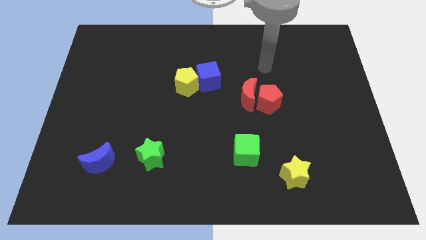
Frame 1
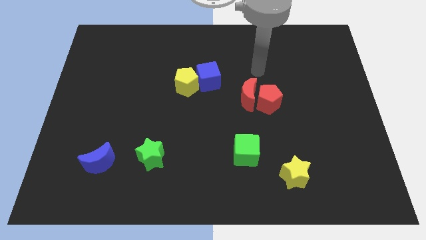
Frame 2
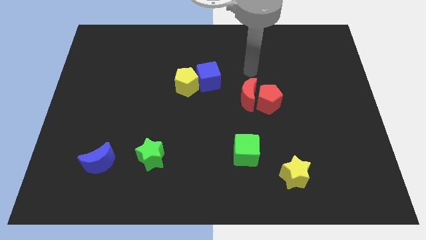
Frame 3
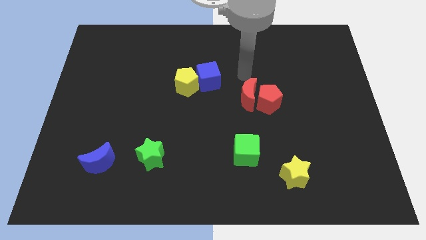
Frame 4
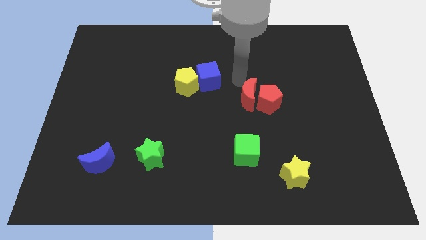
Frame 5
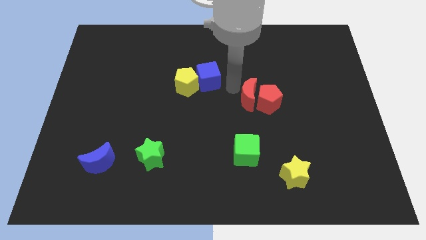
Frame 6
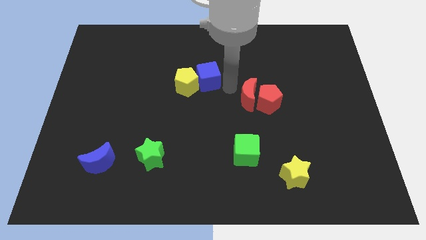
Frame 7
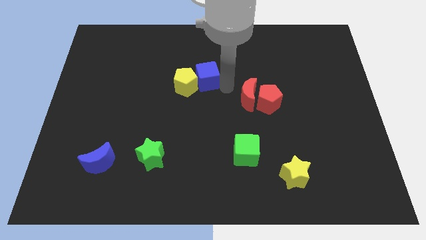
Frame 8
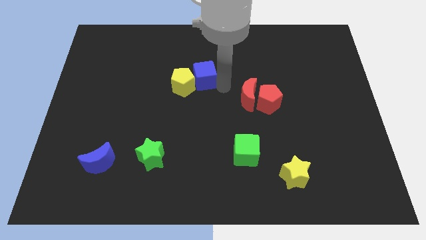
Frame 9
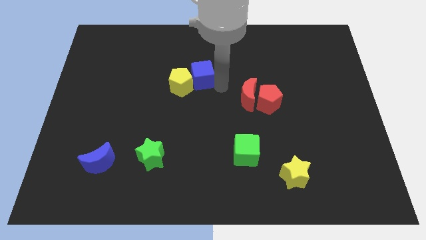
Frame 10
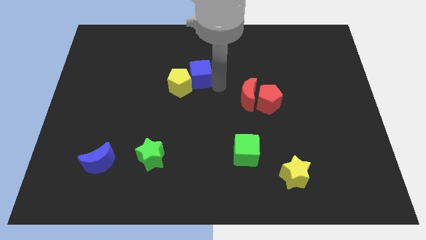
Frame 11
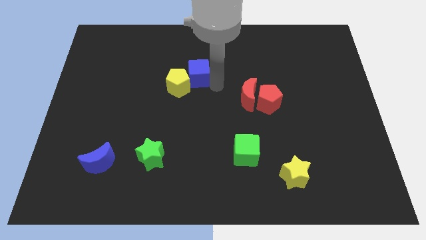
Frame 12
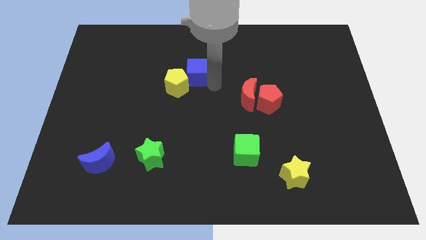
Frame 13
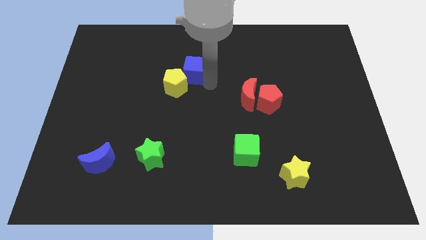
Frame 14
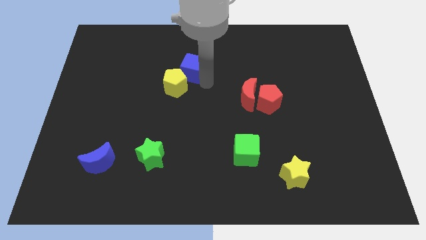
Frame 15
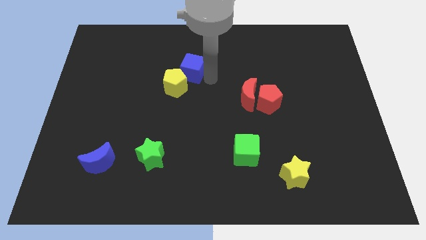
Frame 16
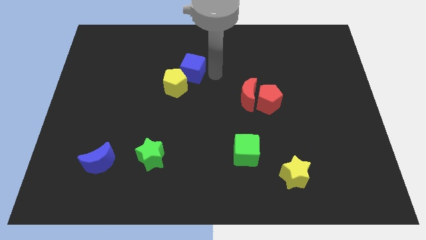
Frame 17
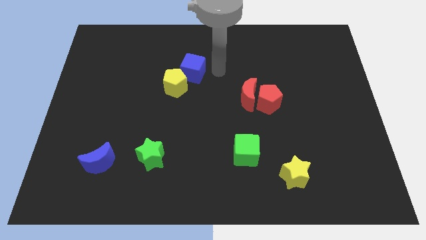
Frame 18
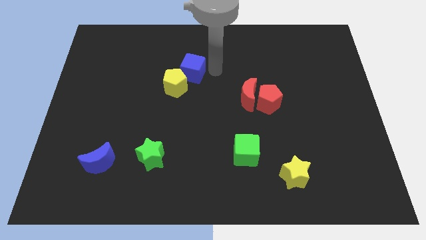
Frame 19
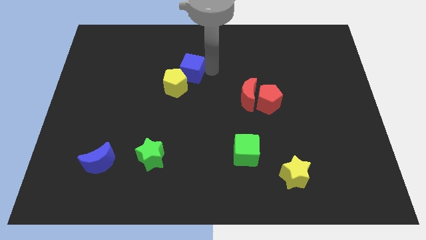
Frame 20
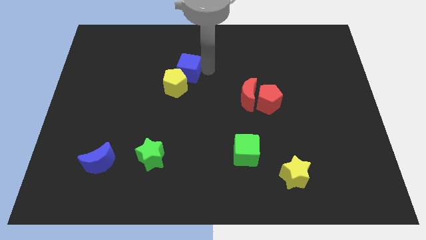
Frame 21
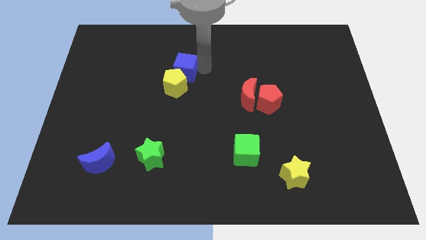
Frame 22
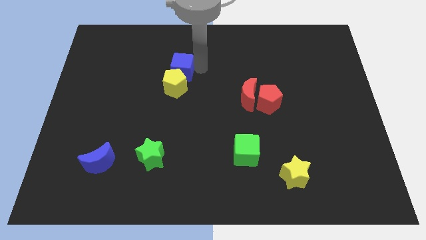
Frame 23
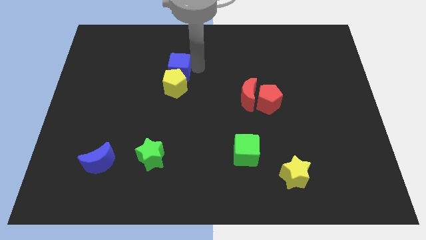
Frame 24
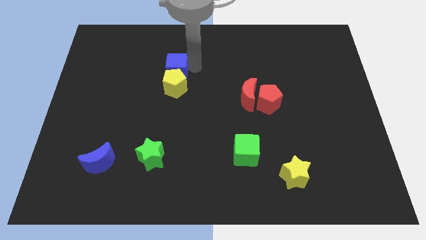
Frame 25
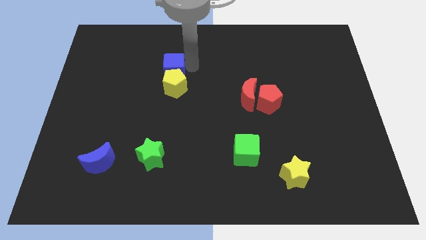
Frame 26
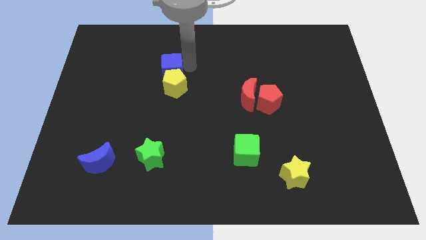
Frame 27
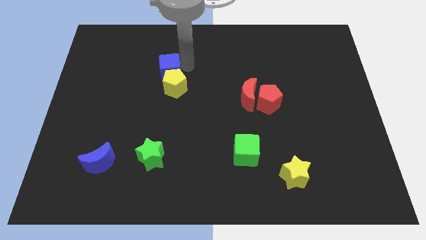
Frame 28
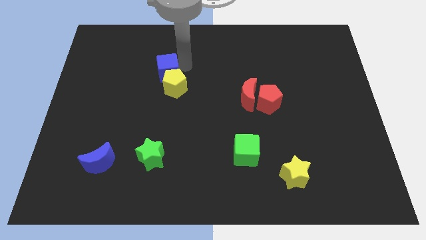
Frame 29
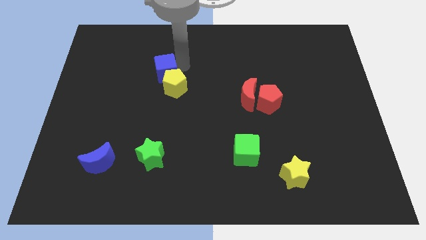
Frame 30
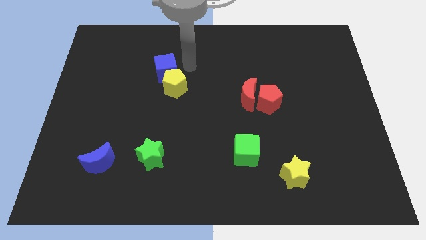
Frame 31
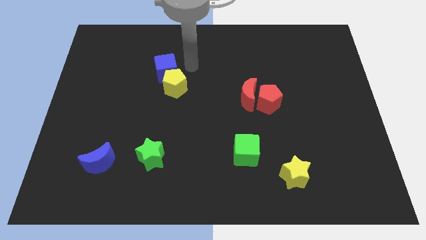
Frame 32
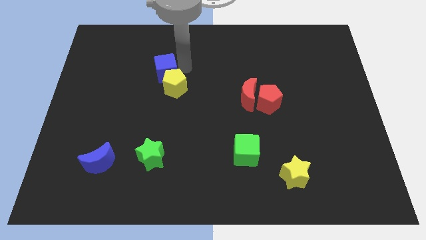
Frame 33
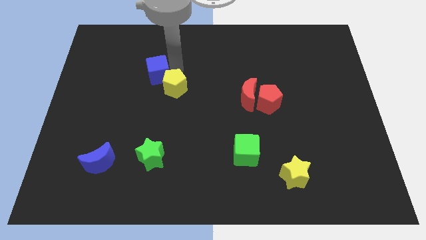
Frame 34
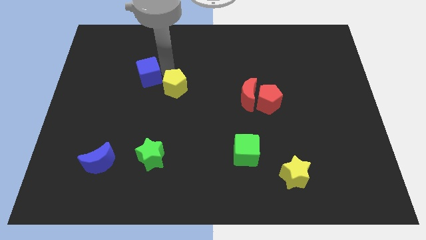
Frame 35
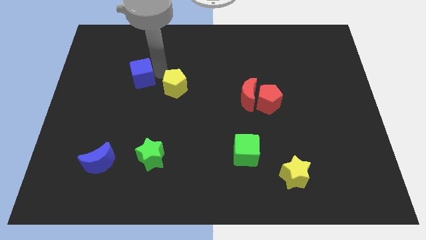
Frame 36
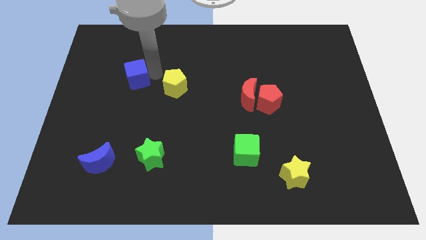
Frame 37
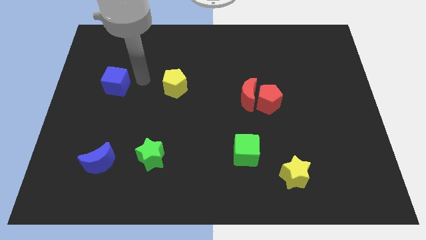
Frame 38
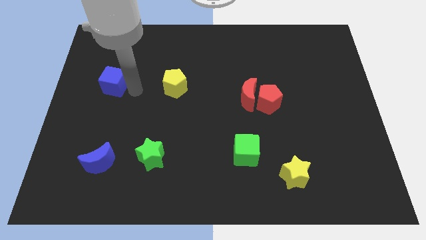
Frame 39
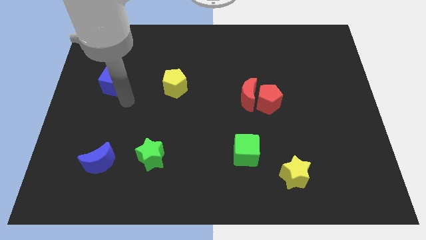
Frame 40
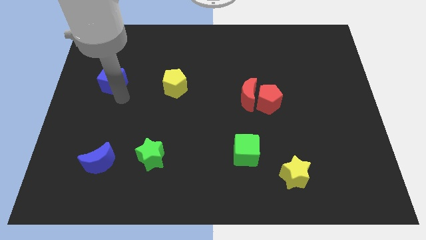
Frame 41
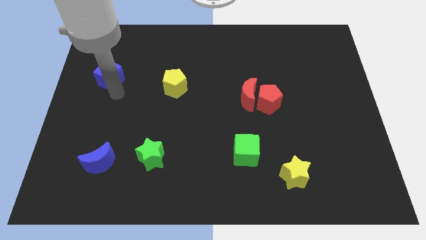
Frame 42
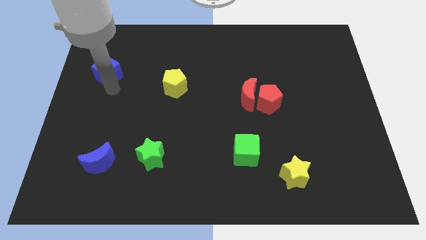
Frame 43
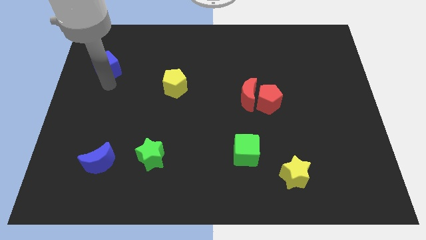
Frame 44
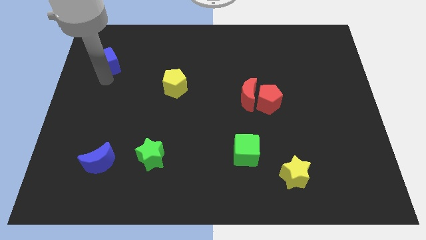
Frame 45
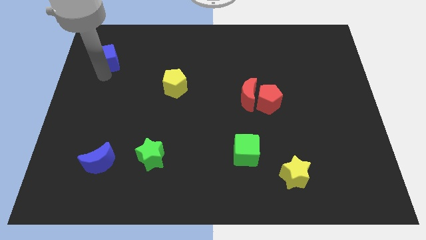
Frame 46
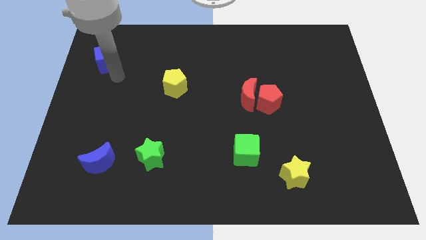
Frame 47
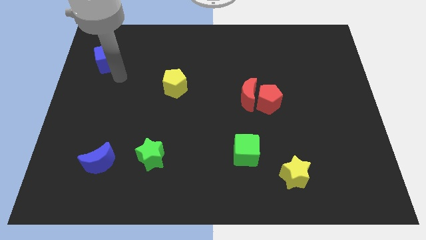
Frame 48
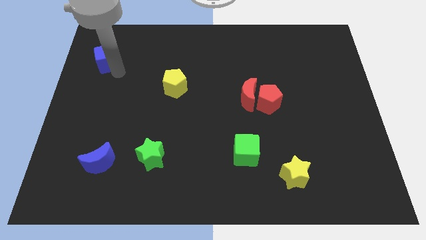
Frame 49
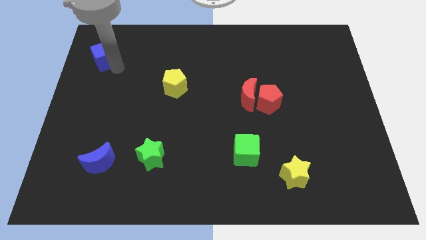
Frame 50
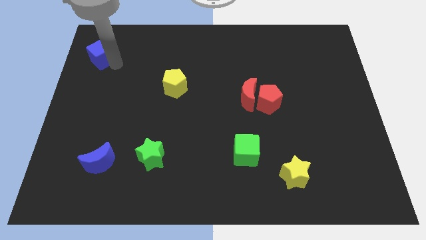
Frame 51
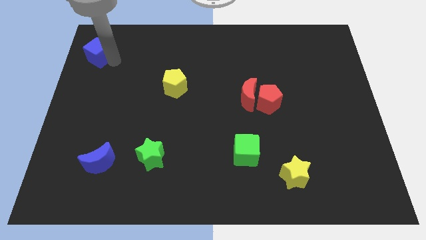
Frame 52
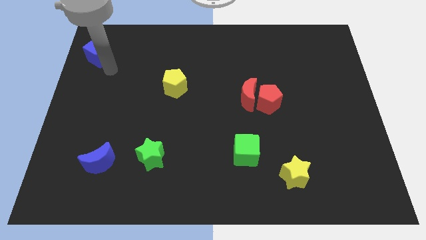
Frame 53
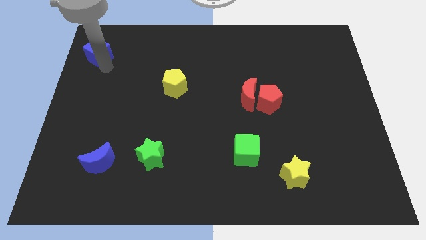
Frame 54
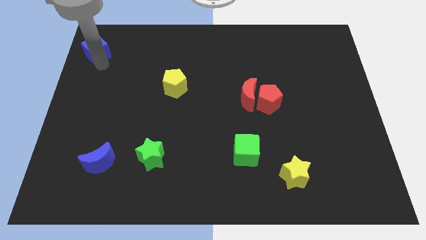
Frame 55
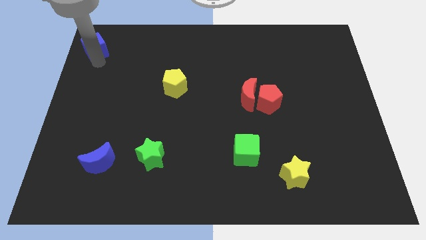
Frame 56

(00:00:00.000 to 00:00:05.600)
slide the blue cube to the upper left corner
